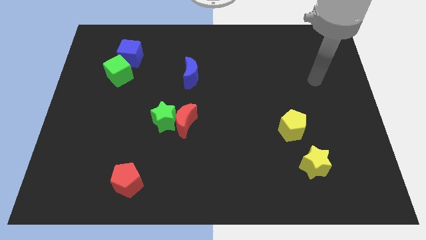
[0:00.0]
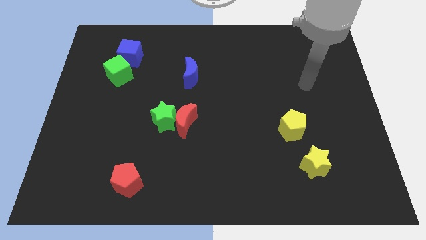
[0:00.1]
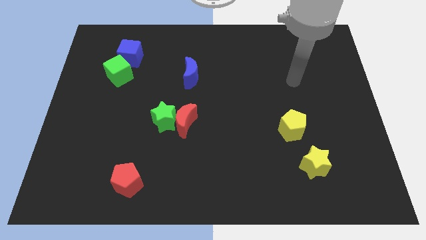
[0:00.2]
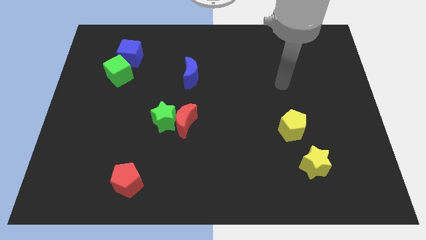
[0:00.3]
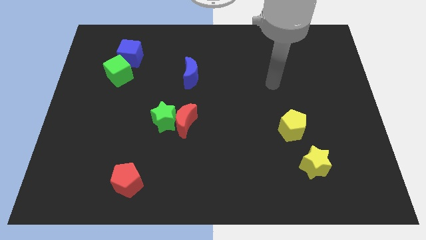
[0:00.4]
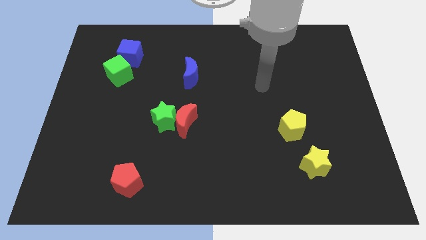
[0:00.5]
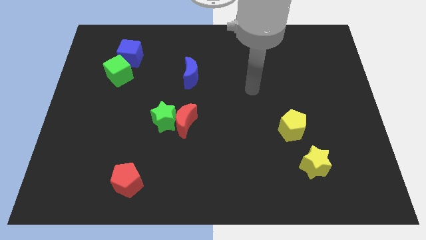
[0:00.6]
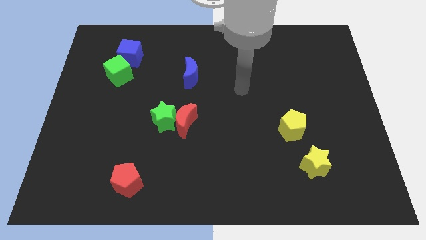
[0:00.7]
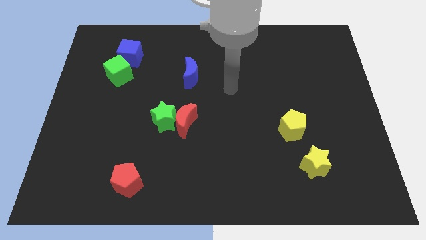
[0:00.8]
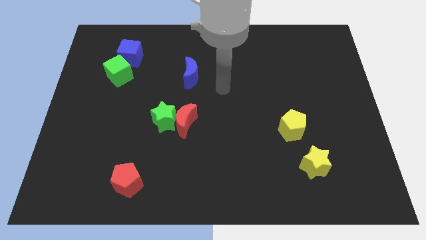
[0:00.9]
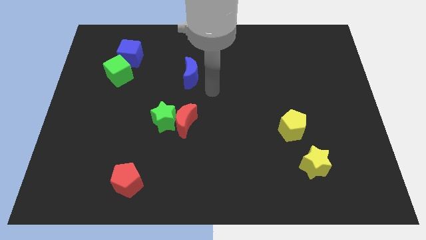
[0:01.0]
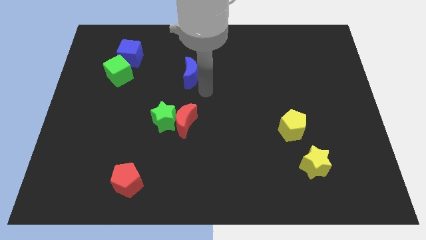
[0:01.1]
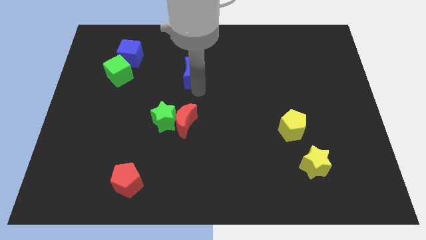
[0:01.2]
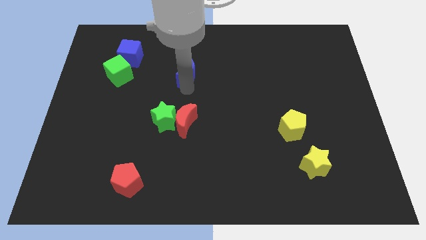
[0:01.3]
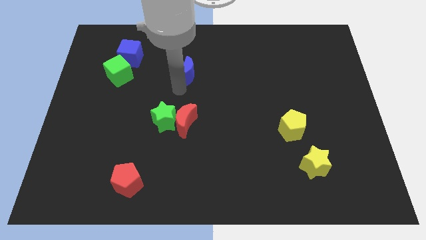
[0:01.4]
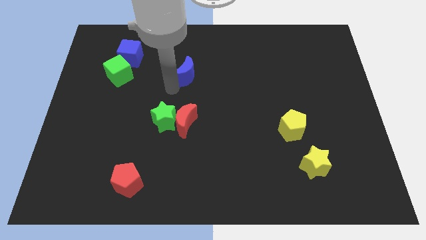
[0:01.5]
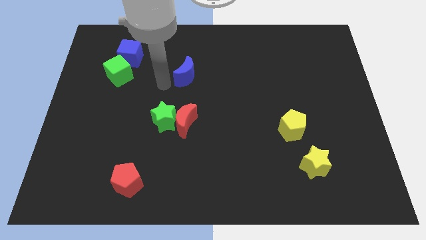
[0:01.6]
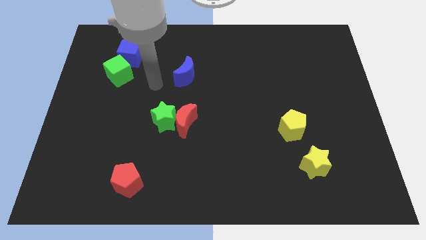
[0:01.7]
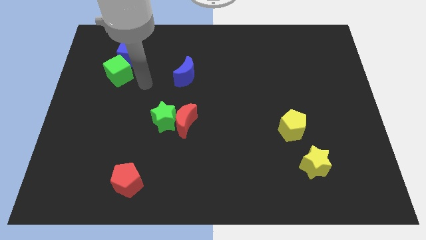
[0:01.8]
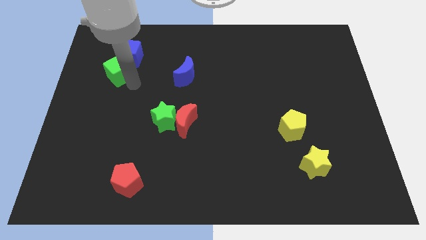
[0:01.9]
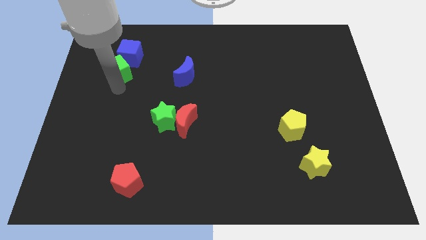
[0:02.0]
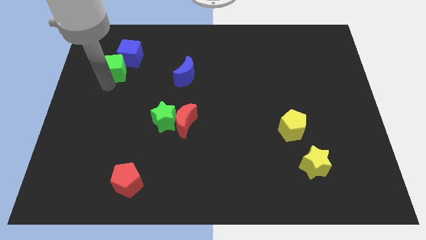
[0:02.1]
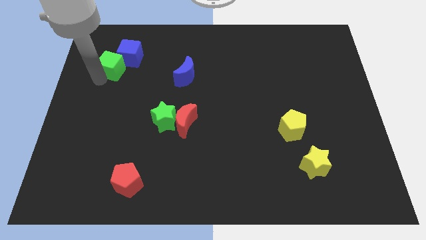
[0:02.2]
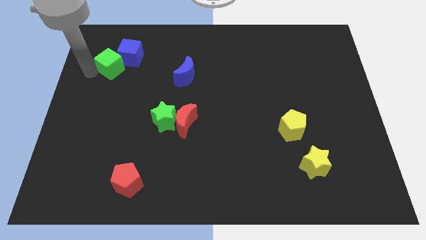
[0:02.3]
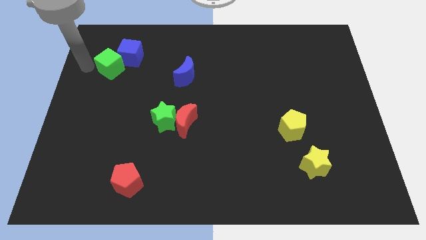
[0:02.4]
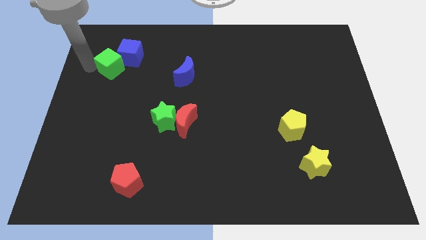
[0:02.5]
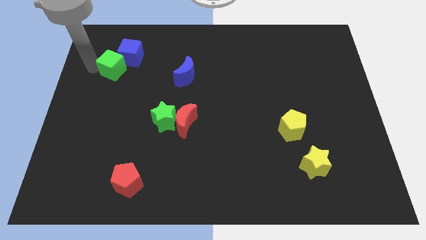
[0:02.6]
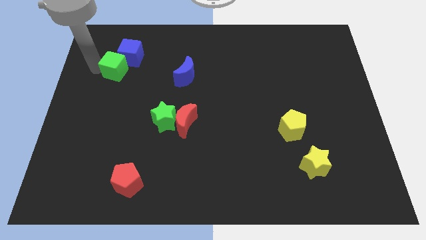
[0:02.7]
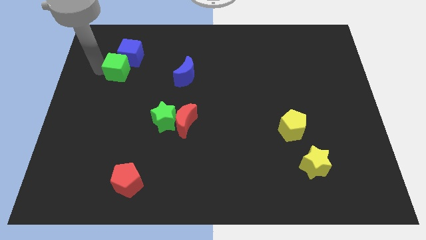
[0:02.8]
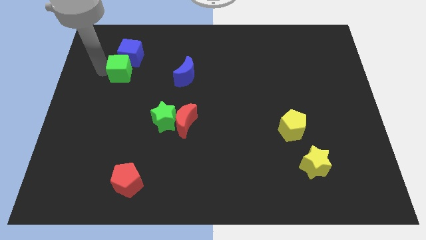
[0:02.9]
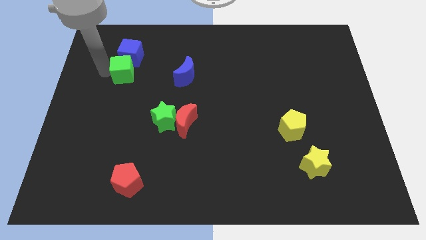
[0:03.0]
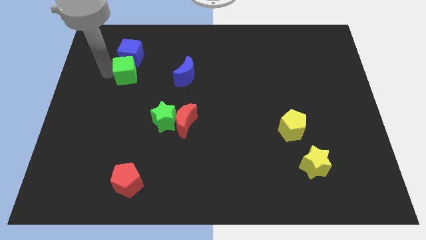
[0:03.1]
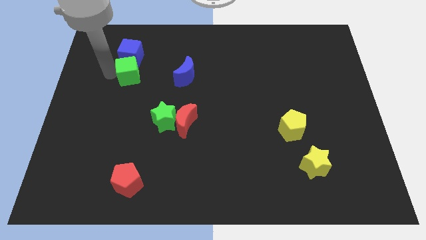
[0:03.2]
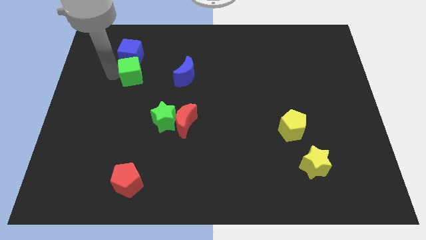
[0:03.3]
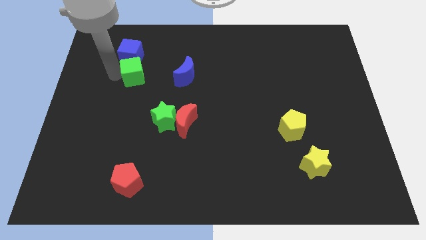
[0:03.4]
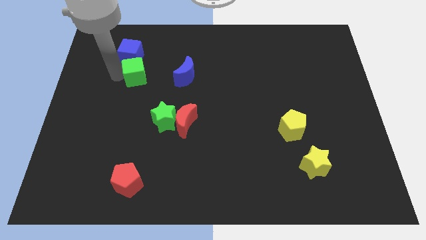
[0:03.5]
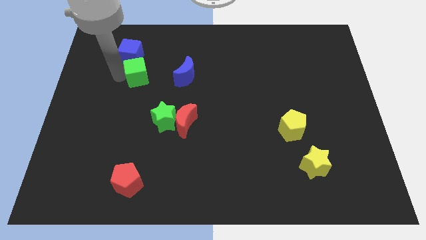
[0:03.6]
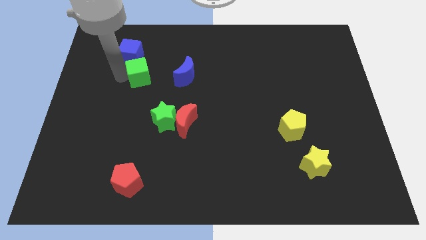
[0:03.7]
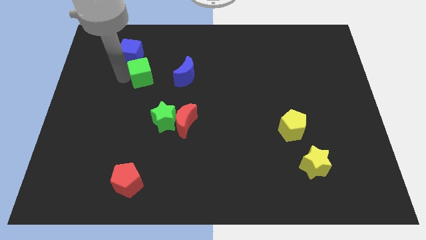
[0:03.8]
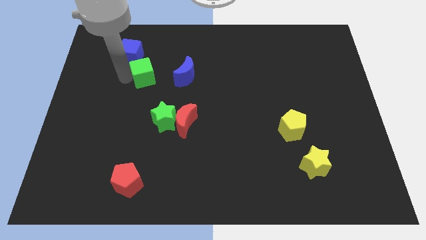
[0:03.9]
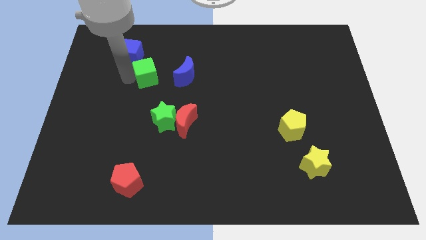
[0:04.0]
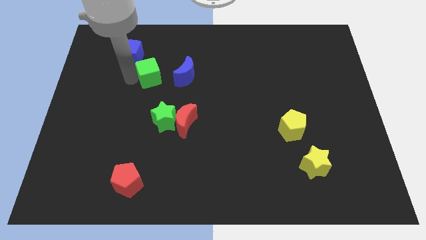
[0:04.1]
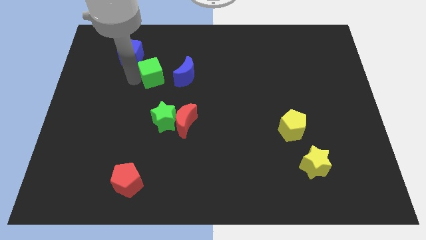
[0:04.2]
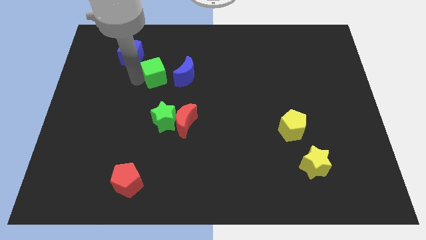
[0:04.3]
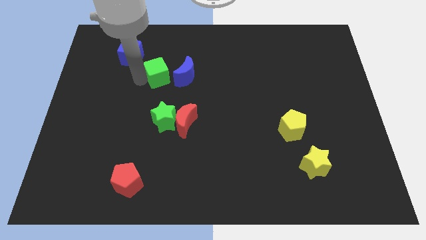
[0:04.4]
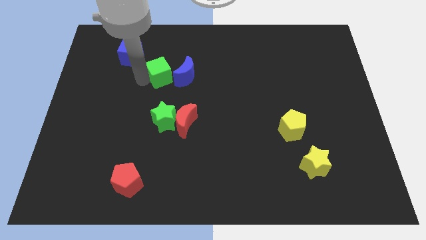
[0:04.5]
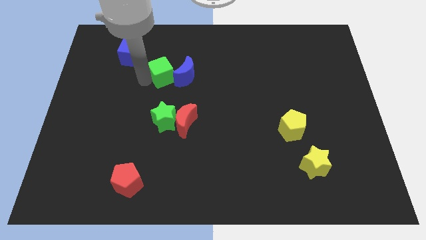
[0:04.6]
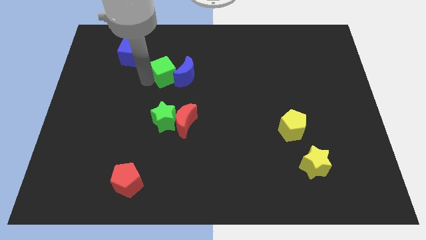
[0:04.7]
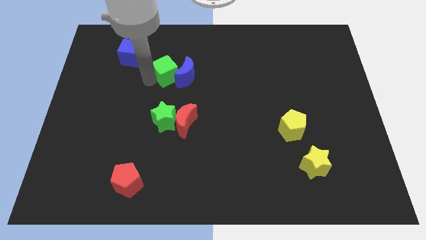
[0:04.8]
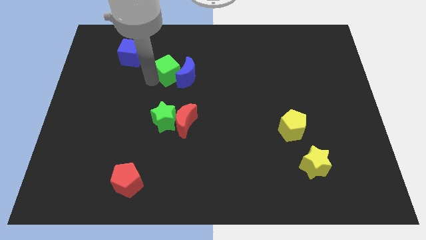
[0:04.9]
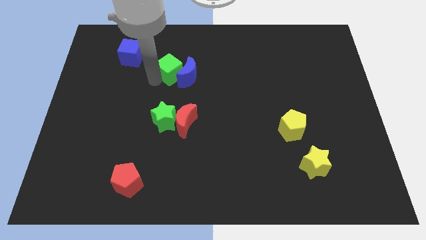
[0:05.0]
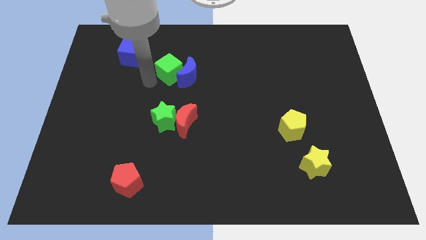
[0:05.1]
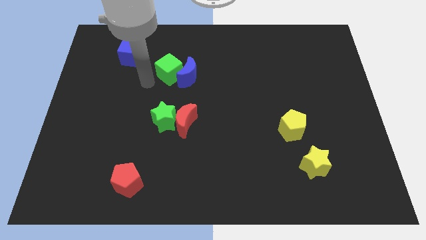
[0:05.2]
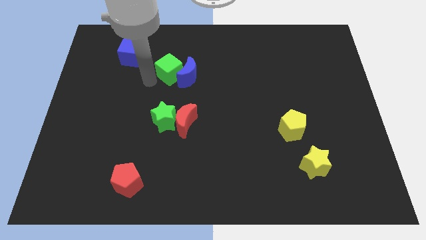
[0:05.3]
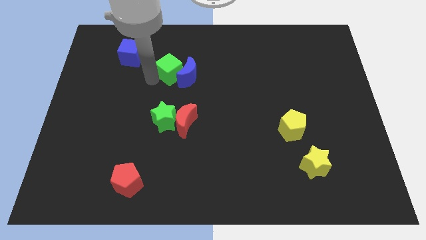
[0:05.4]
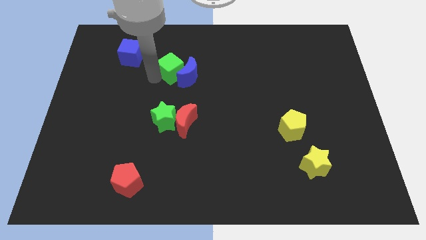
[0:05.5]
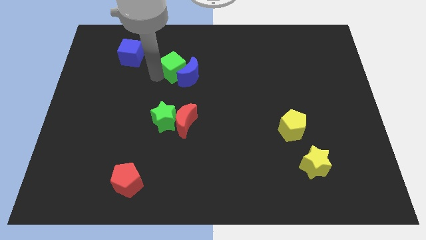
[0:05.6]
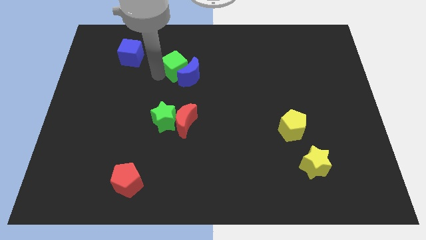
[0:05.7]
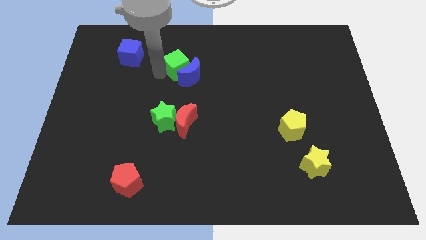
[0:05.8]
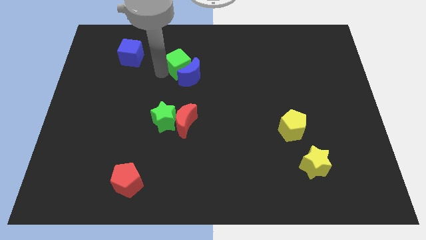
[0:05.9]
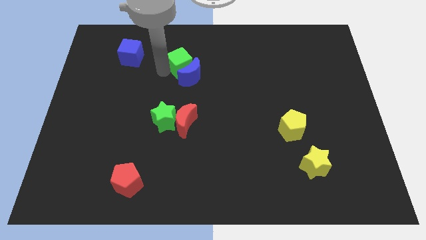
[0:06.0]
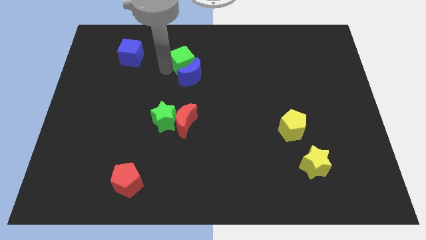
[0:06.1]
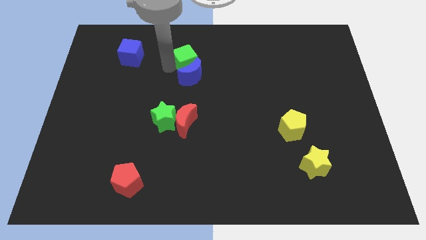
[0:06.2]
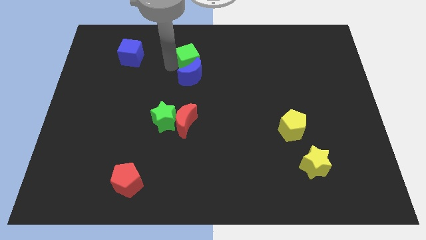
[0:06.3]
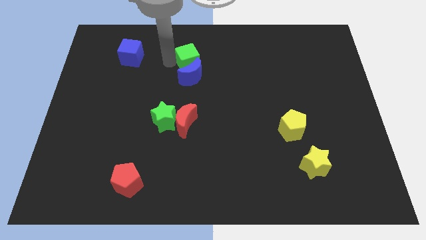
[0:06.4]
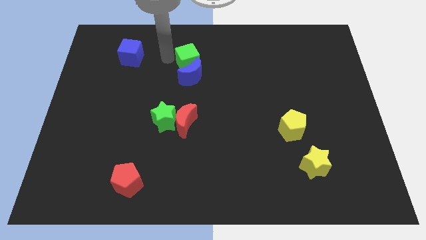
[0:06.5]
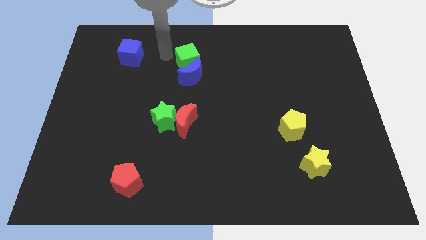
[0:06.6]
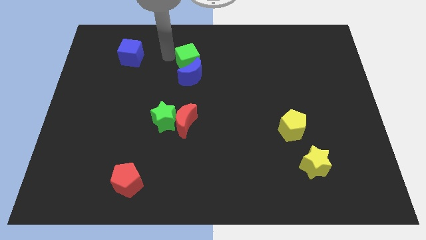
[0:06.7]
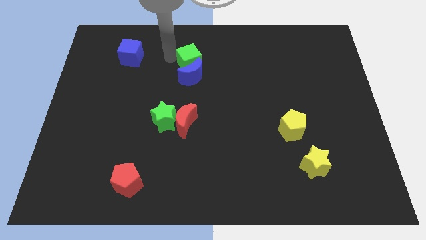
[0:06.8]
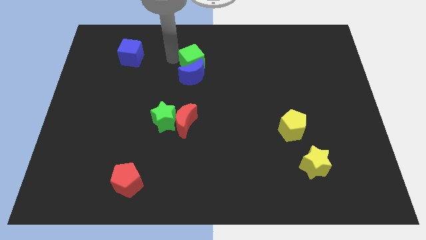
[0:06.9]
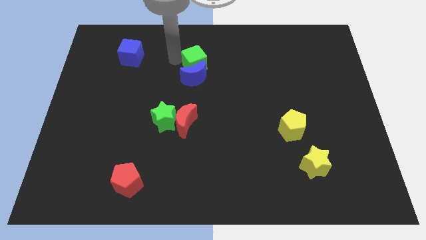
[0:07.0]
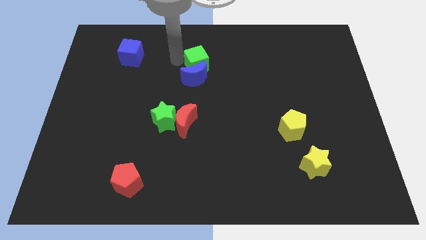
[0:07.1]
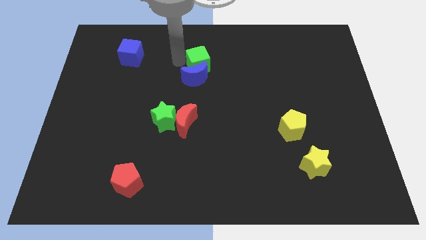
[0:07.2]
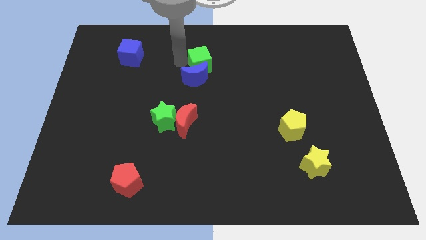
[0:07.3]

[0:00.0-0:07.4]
slide the green cube right

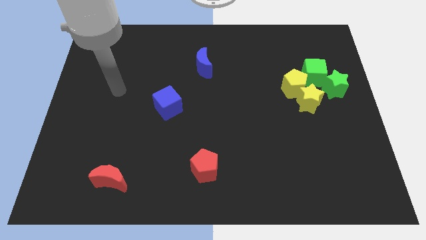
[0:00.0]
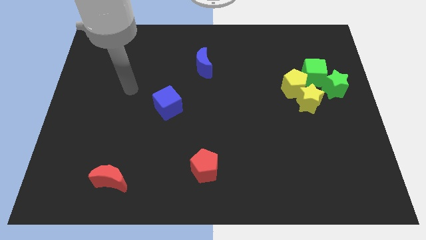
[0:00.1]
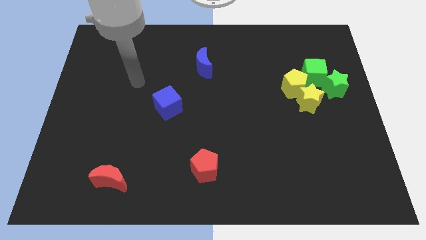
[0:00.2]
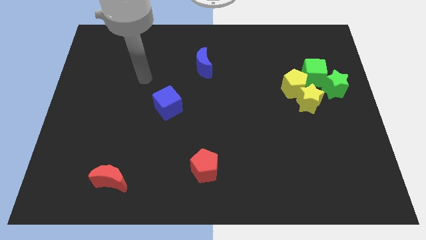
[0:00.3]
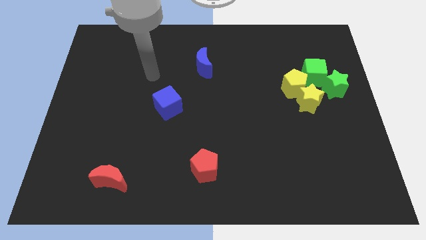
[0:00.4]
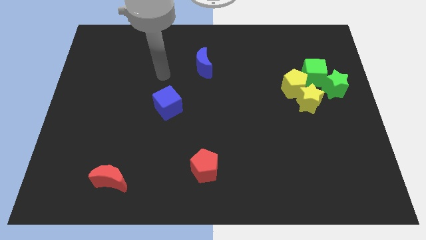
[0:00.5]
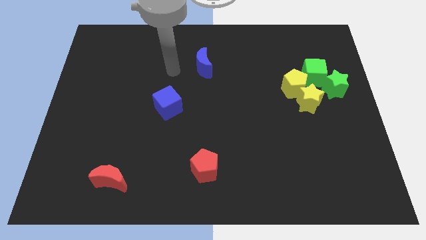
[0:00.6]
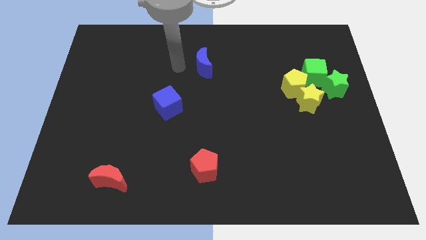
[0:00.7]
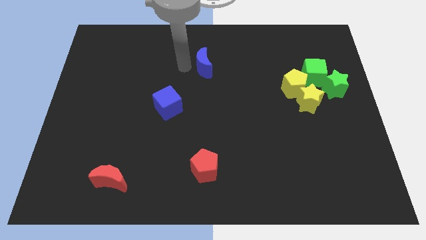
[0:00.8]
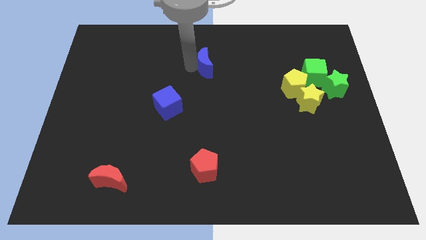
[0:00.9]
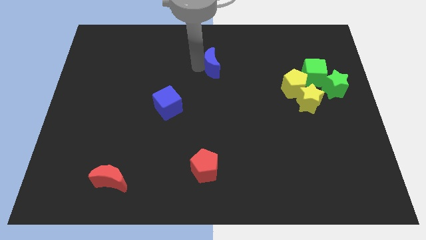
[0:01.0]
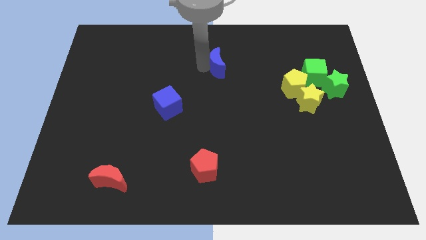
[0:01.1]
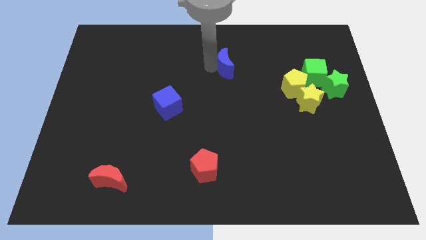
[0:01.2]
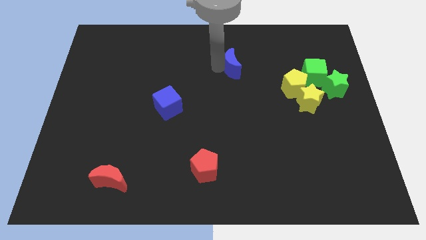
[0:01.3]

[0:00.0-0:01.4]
push the blue moon to the right a bit
